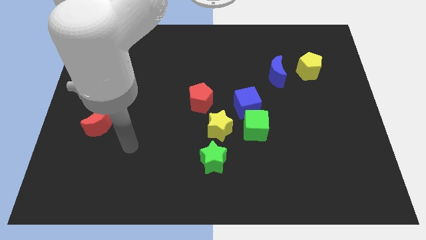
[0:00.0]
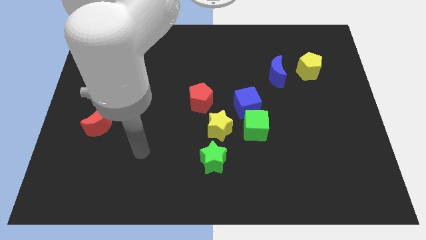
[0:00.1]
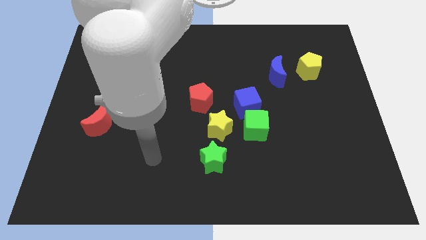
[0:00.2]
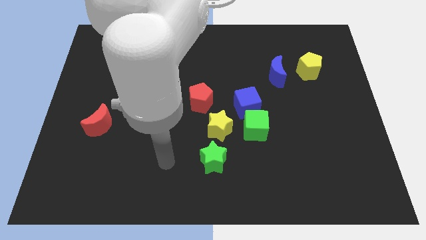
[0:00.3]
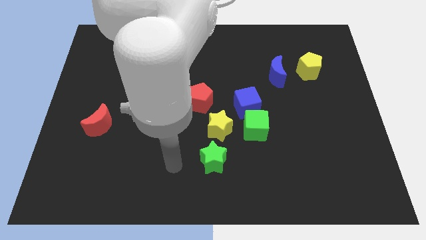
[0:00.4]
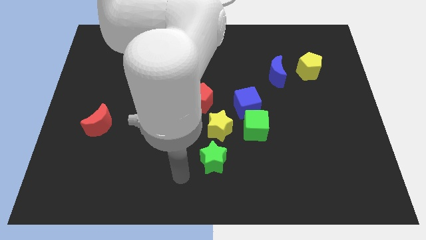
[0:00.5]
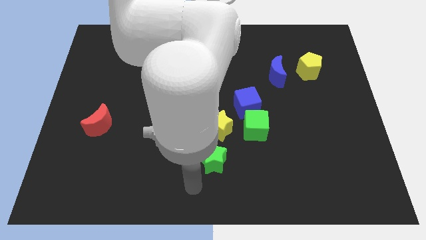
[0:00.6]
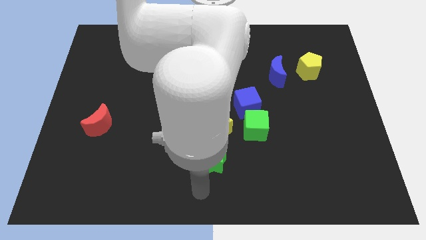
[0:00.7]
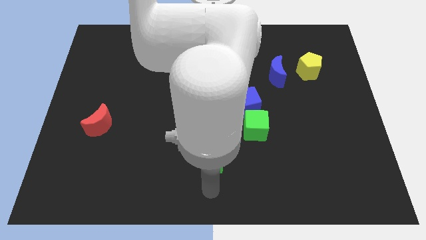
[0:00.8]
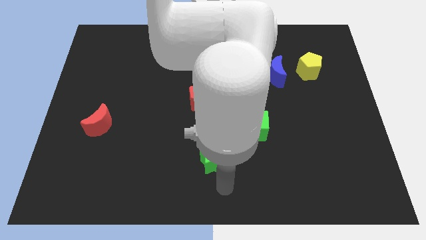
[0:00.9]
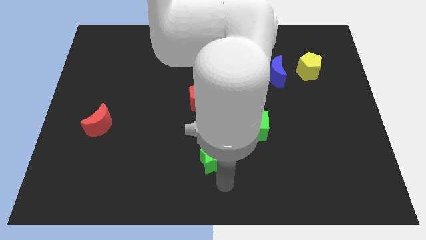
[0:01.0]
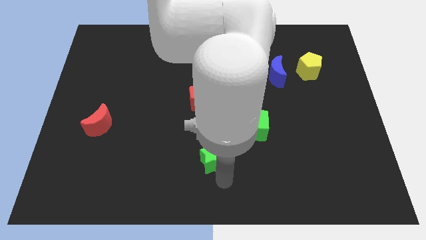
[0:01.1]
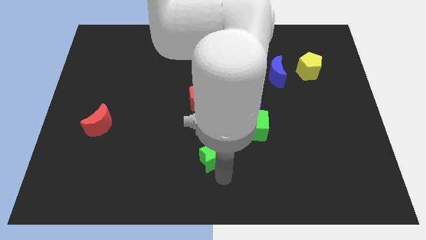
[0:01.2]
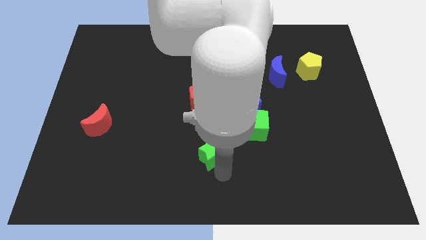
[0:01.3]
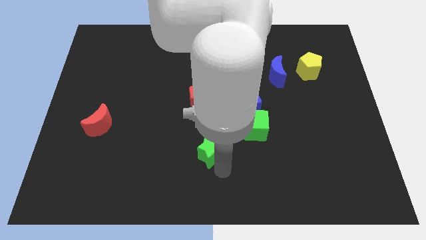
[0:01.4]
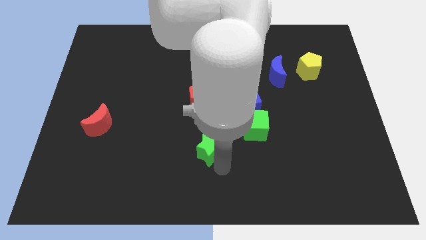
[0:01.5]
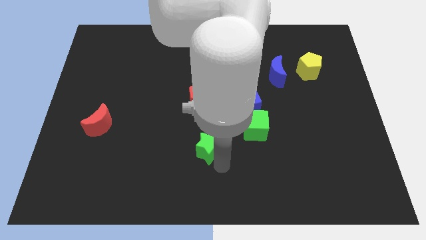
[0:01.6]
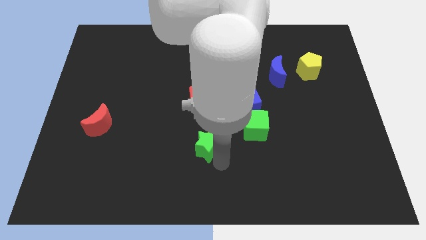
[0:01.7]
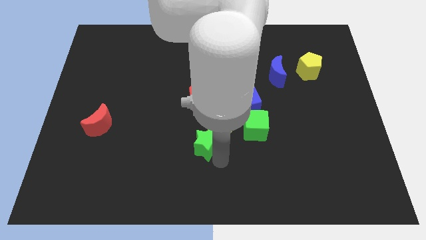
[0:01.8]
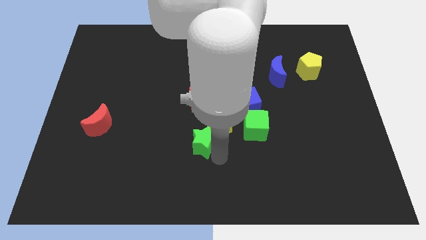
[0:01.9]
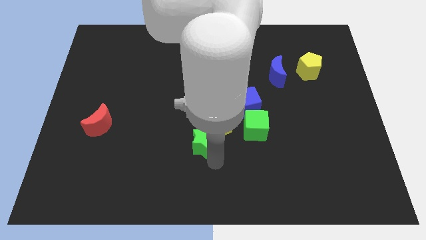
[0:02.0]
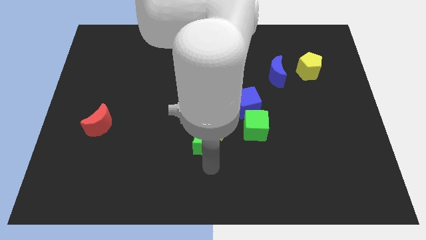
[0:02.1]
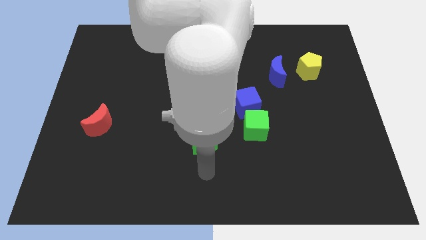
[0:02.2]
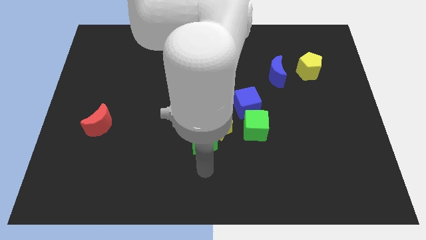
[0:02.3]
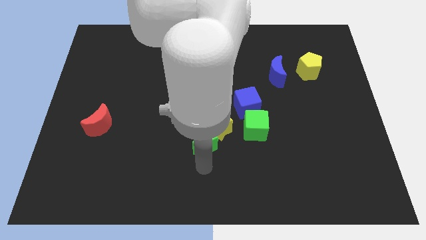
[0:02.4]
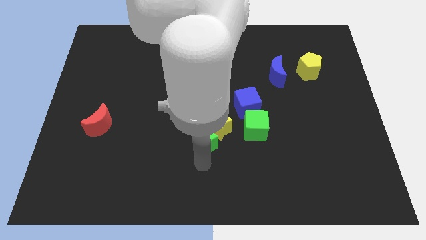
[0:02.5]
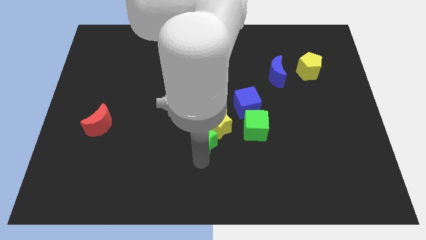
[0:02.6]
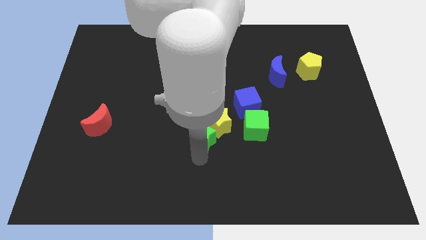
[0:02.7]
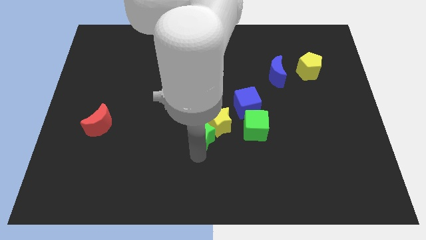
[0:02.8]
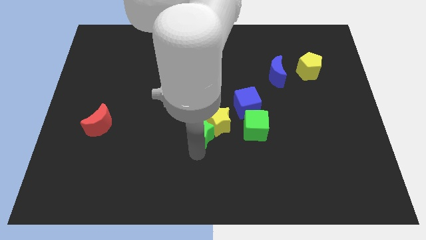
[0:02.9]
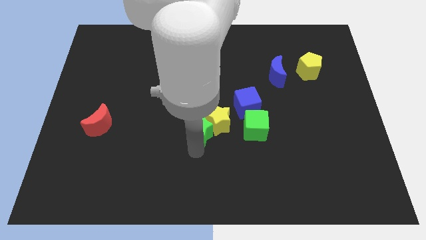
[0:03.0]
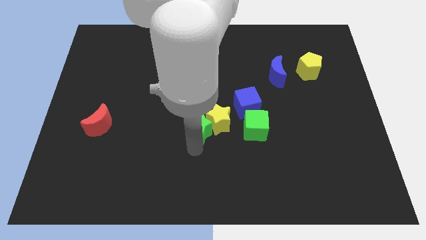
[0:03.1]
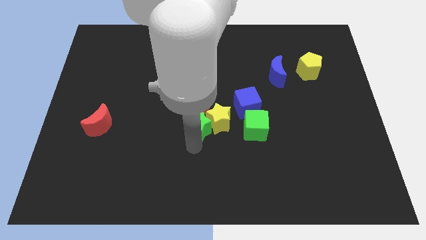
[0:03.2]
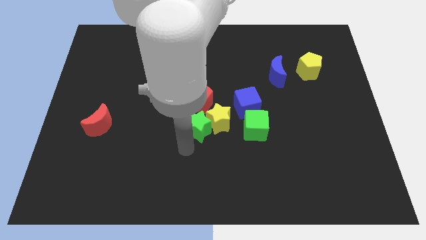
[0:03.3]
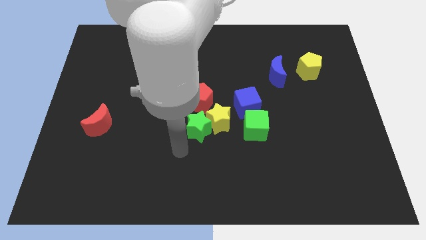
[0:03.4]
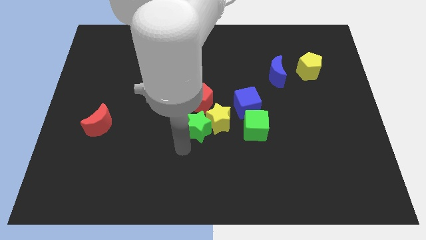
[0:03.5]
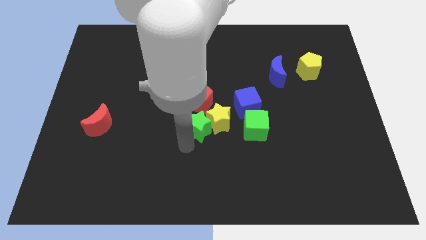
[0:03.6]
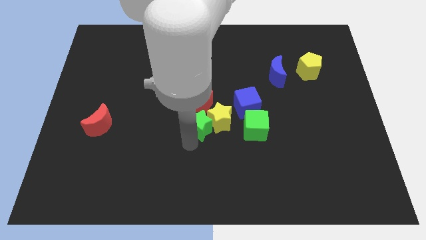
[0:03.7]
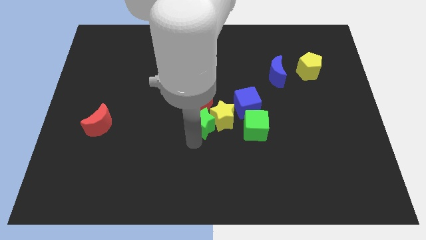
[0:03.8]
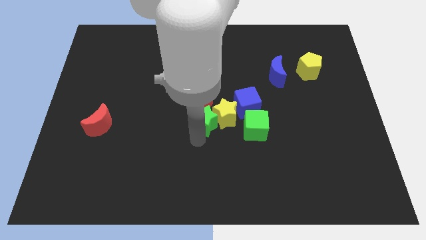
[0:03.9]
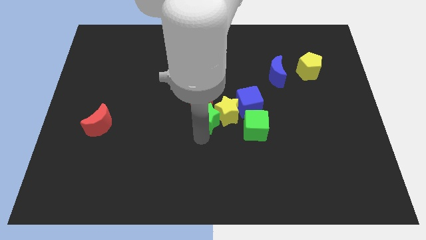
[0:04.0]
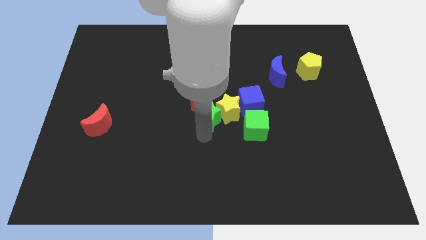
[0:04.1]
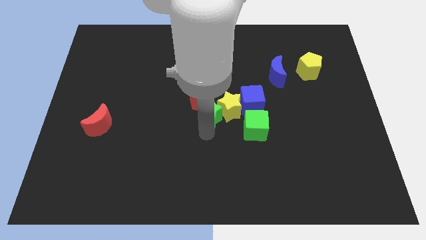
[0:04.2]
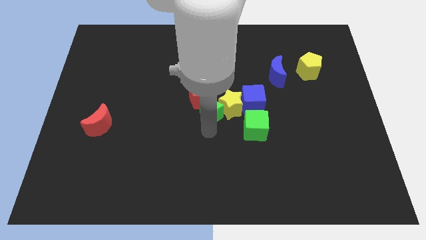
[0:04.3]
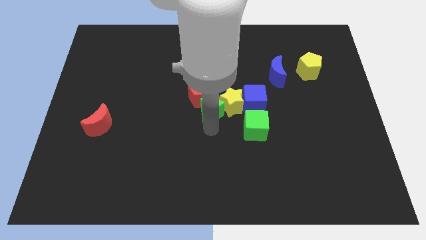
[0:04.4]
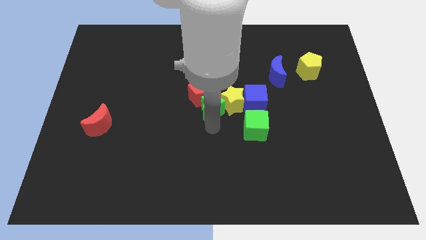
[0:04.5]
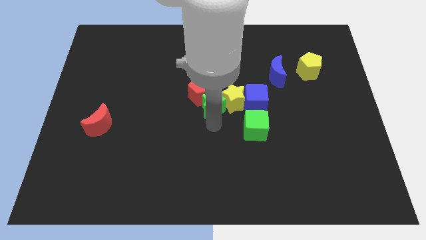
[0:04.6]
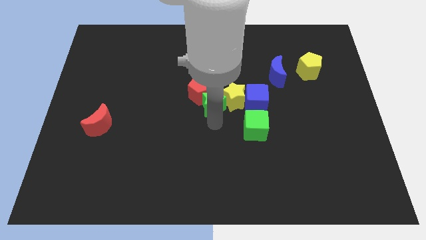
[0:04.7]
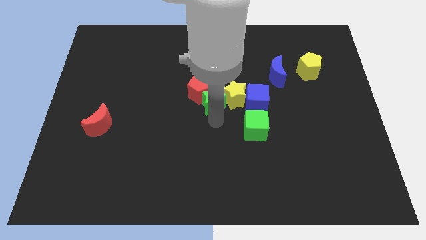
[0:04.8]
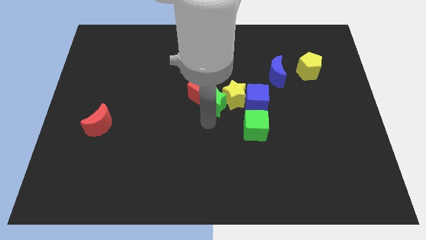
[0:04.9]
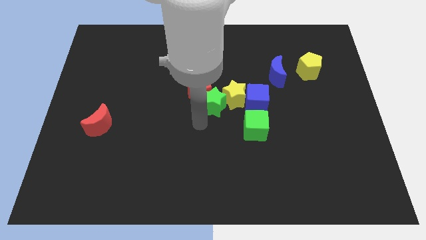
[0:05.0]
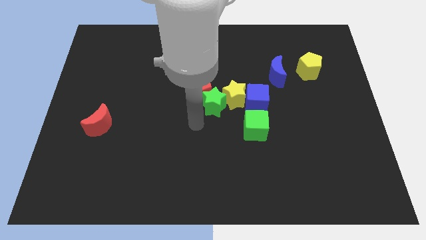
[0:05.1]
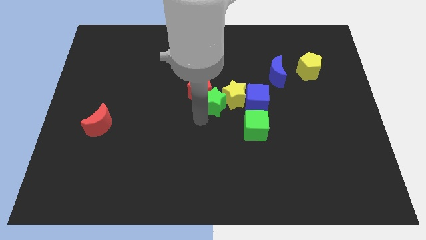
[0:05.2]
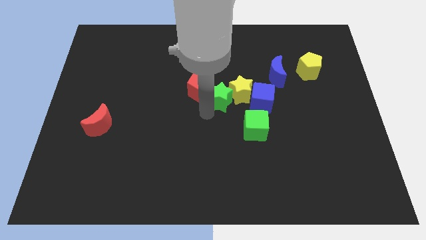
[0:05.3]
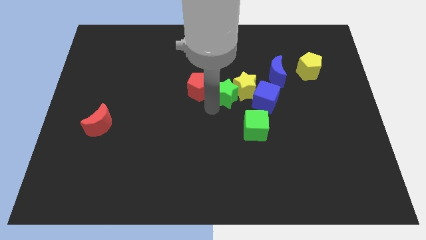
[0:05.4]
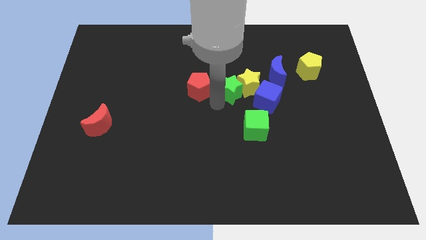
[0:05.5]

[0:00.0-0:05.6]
put the green star to the top left side of the blue cube

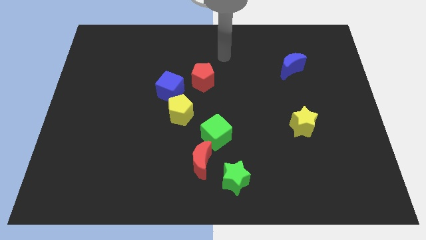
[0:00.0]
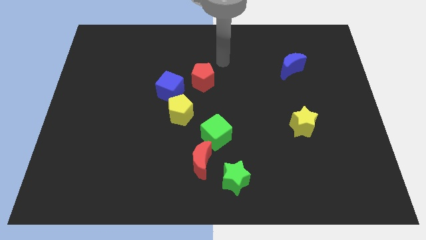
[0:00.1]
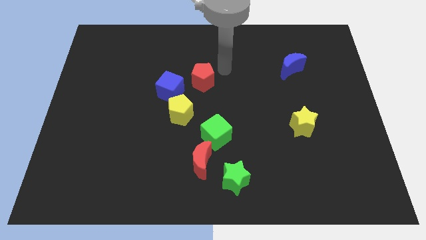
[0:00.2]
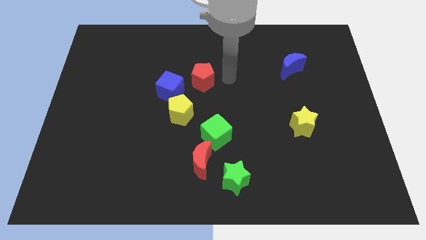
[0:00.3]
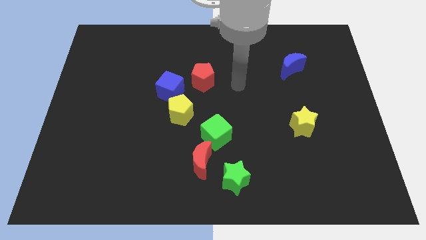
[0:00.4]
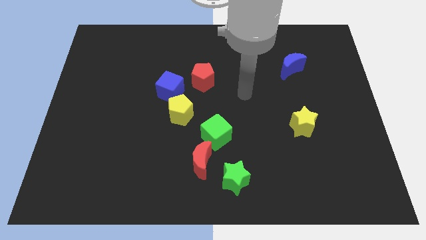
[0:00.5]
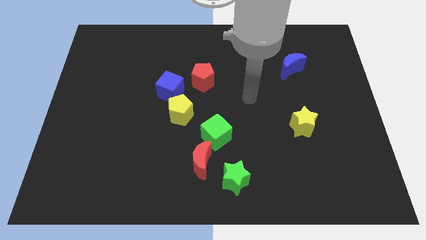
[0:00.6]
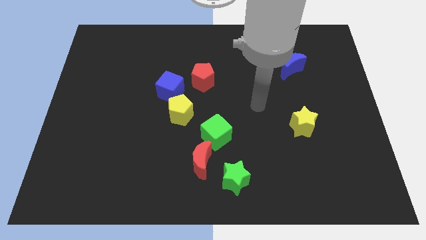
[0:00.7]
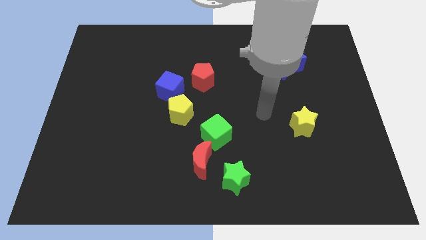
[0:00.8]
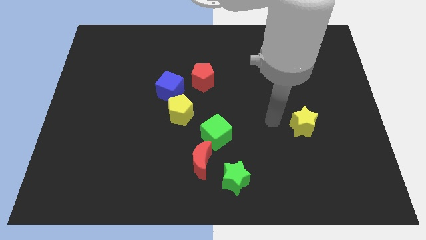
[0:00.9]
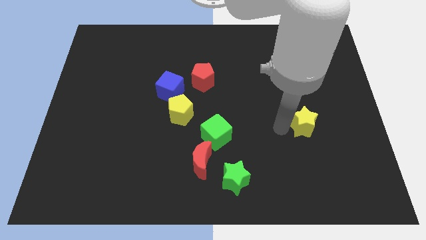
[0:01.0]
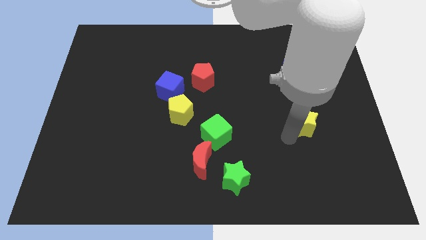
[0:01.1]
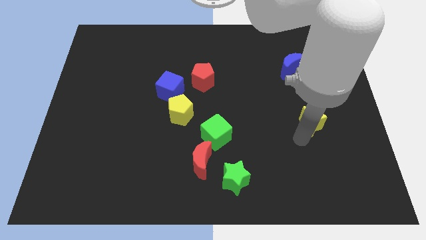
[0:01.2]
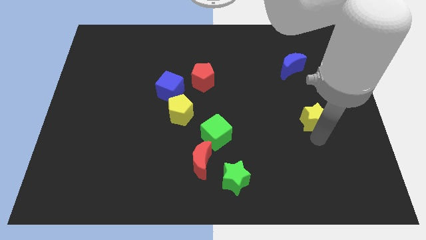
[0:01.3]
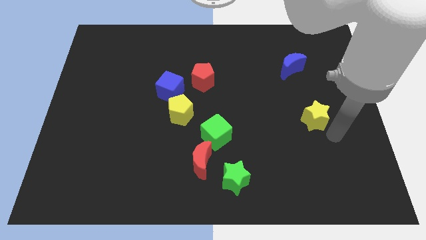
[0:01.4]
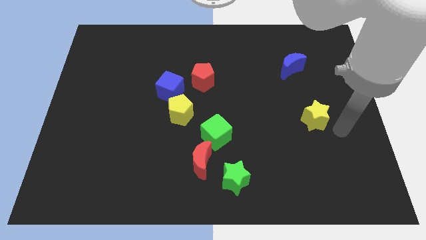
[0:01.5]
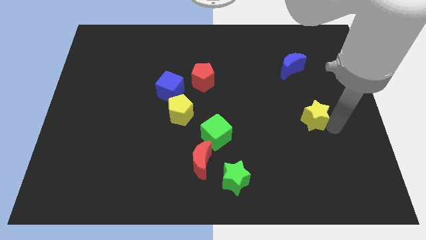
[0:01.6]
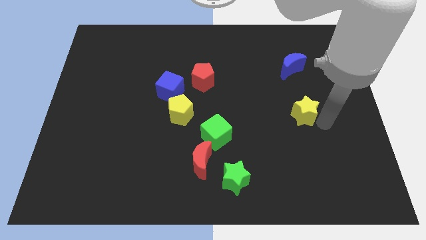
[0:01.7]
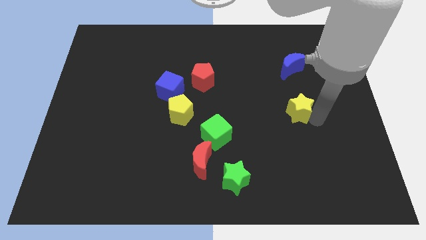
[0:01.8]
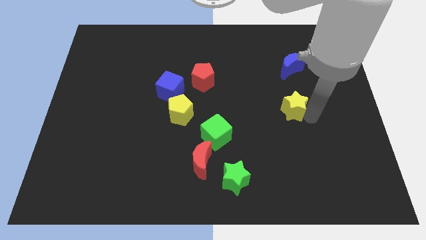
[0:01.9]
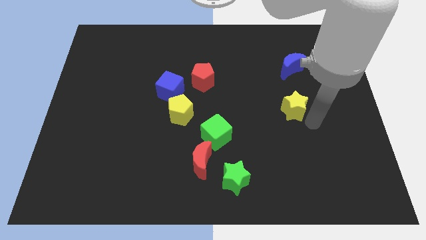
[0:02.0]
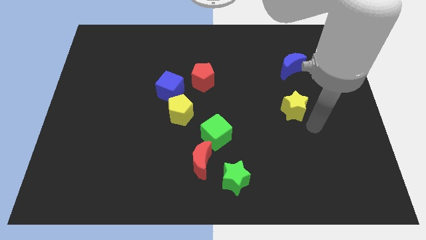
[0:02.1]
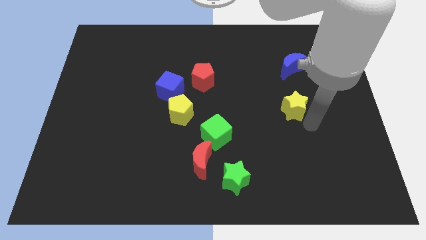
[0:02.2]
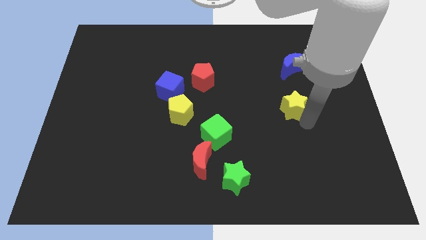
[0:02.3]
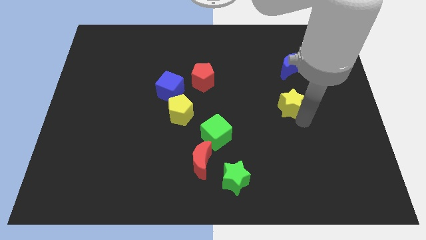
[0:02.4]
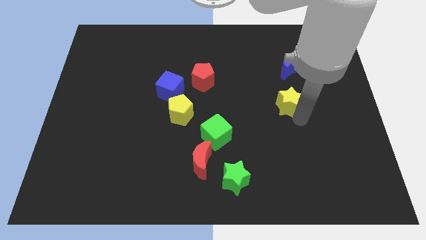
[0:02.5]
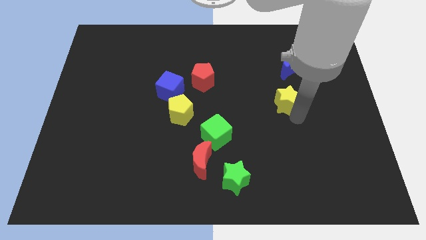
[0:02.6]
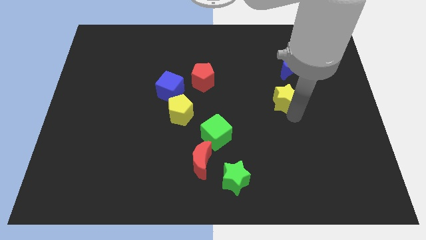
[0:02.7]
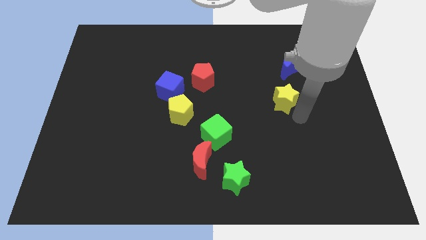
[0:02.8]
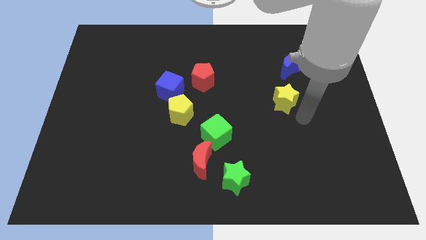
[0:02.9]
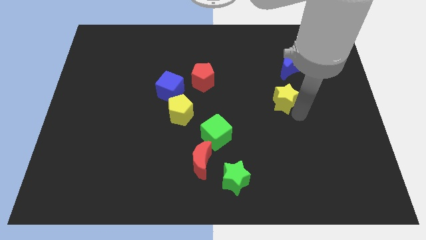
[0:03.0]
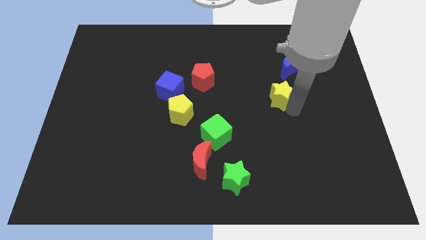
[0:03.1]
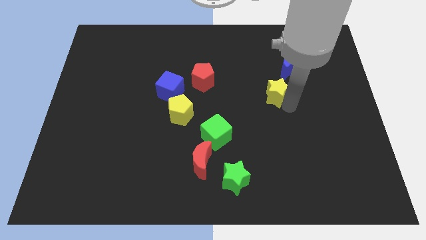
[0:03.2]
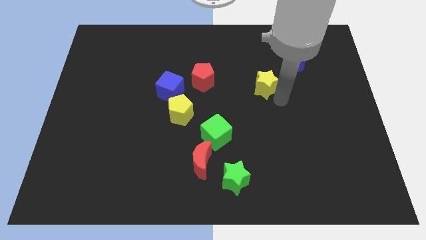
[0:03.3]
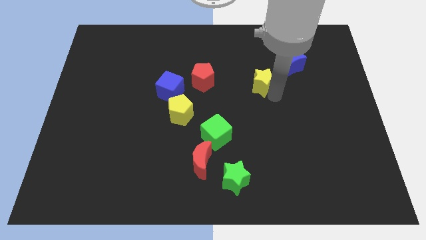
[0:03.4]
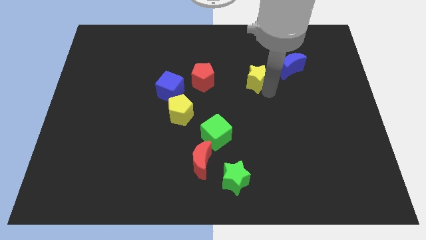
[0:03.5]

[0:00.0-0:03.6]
move the yellow star to the left of the blue moon
